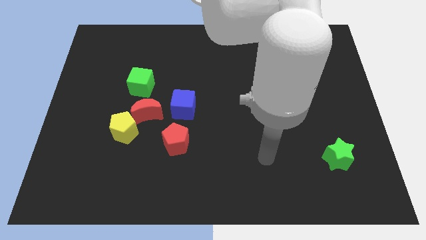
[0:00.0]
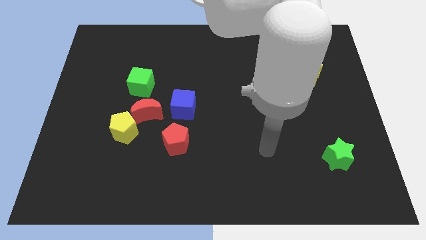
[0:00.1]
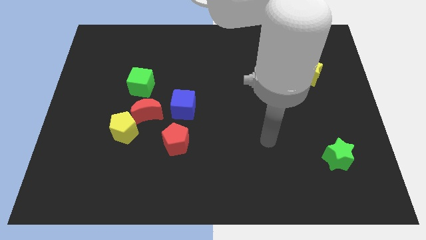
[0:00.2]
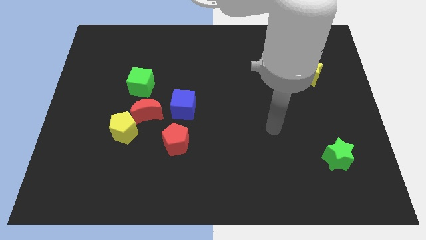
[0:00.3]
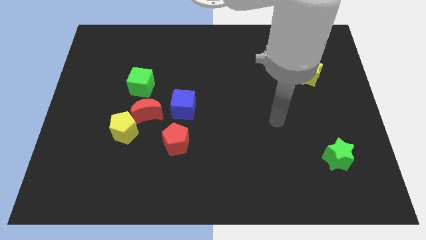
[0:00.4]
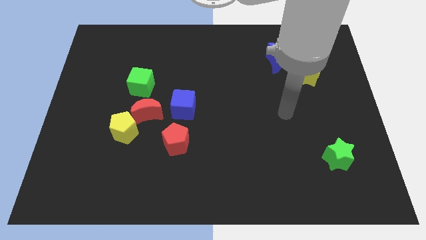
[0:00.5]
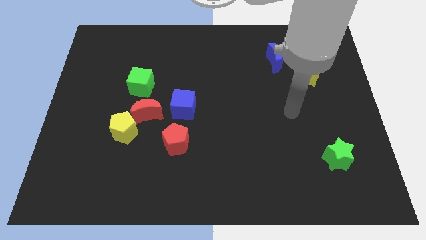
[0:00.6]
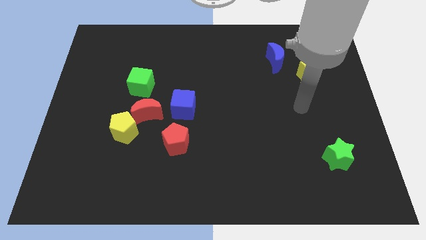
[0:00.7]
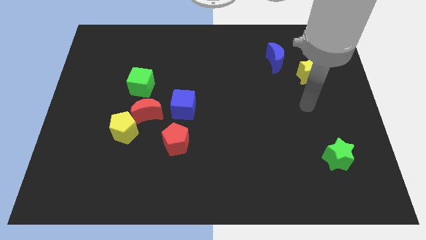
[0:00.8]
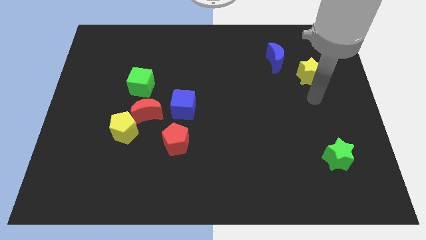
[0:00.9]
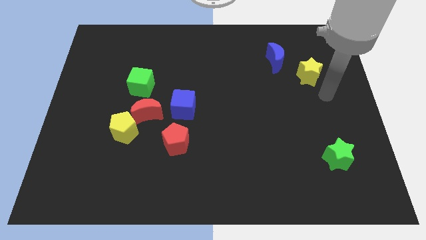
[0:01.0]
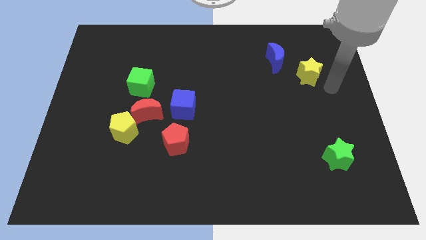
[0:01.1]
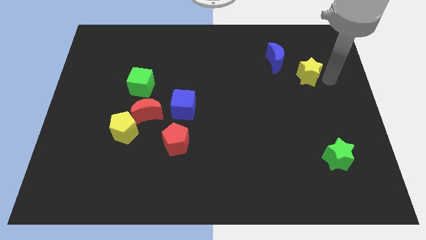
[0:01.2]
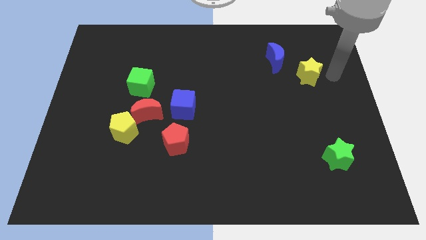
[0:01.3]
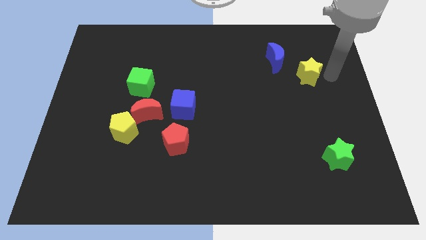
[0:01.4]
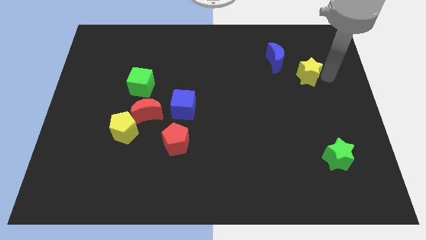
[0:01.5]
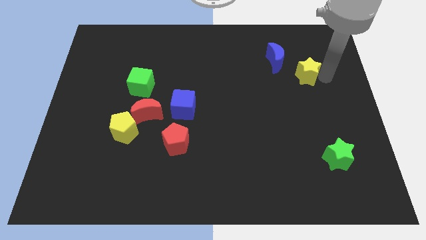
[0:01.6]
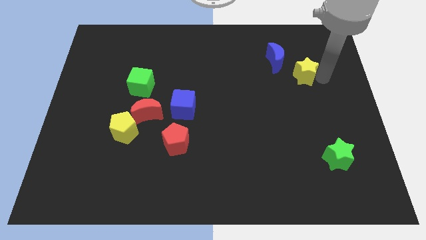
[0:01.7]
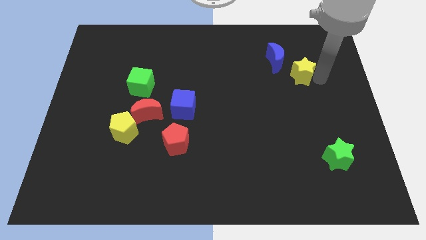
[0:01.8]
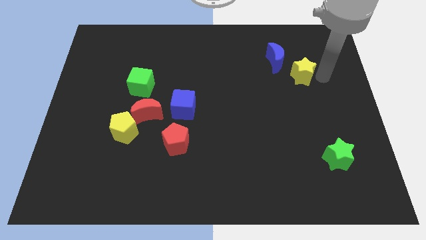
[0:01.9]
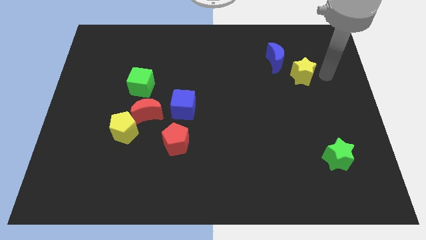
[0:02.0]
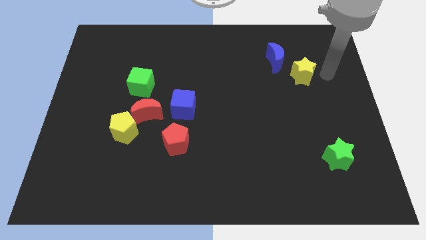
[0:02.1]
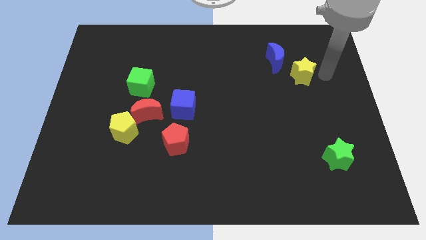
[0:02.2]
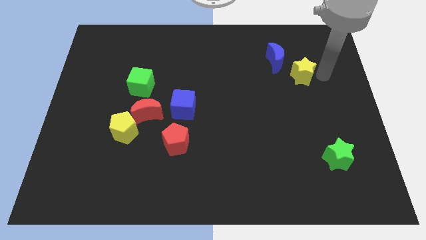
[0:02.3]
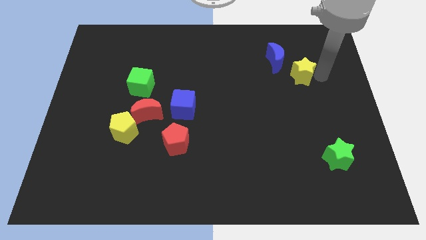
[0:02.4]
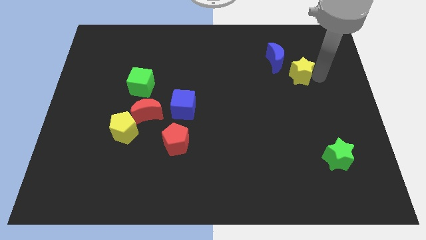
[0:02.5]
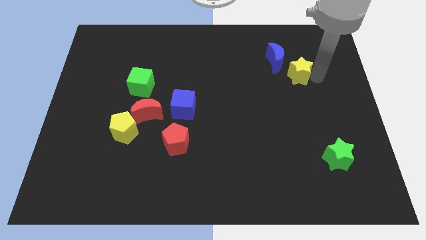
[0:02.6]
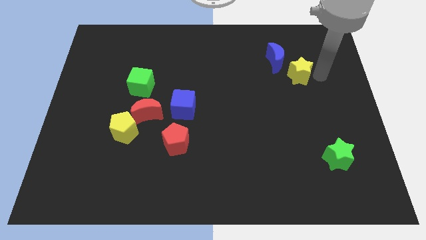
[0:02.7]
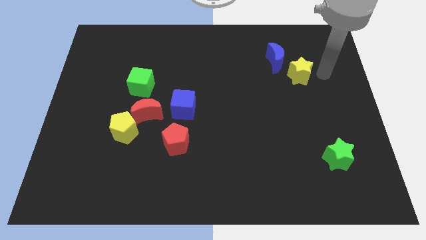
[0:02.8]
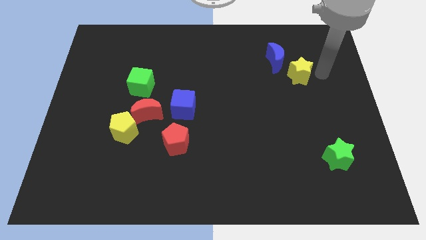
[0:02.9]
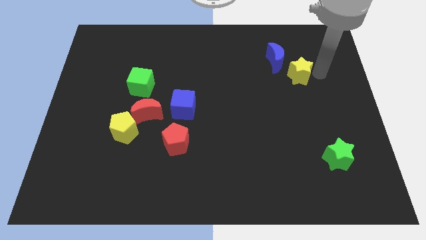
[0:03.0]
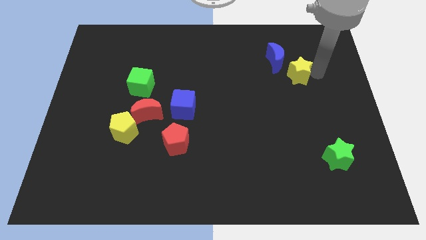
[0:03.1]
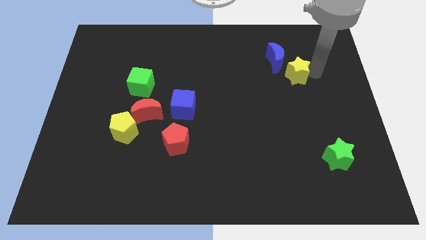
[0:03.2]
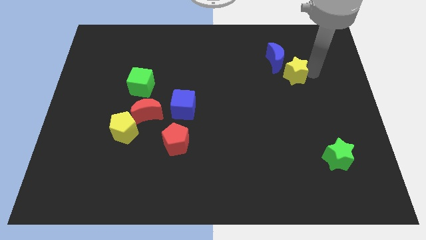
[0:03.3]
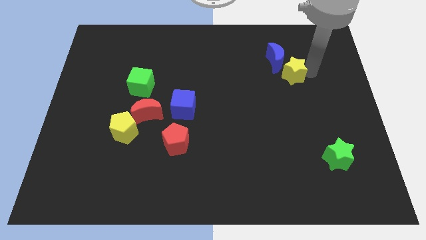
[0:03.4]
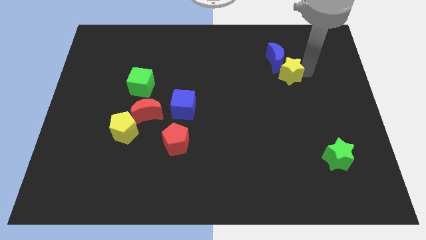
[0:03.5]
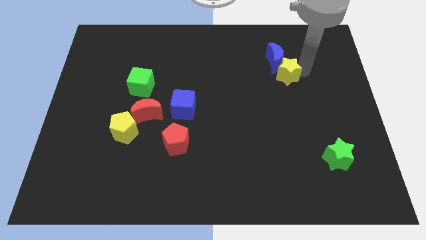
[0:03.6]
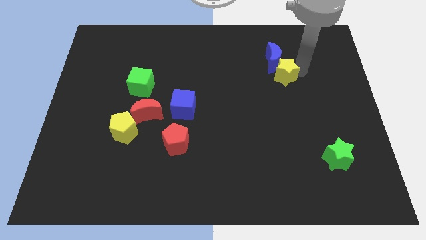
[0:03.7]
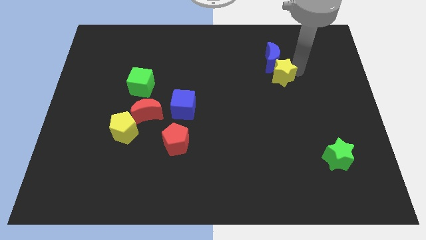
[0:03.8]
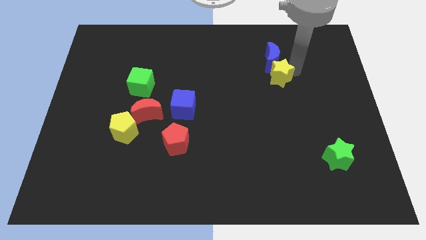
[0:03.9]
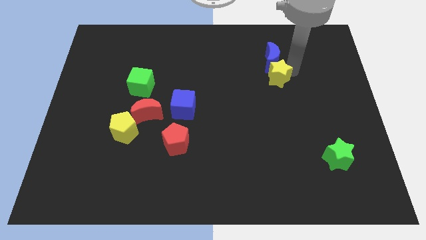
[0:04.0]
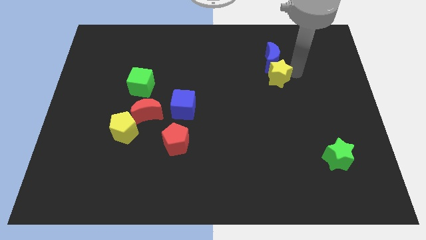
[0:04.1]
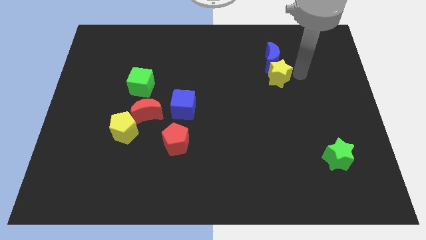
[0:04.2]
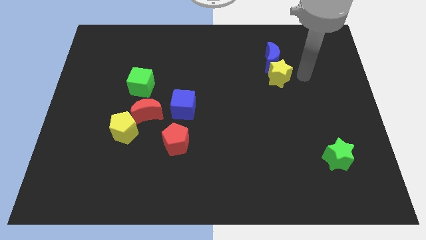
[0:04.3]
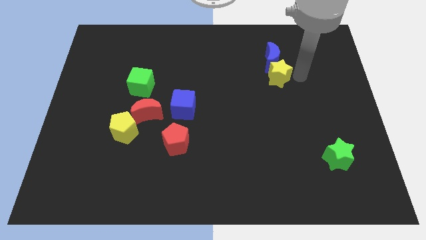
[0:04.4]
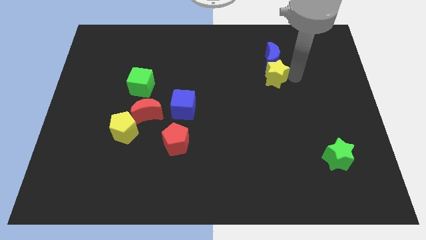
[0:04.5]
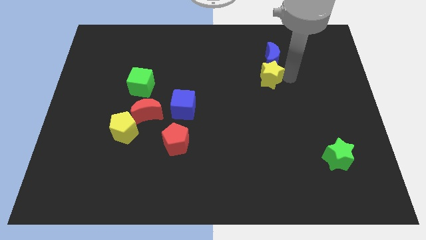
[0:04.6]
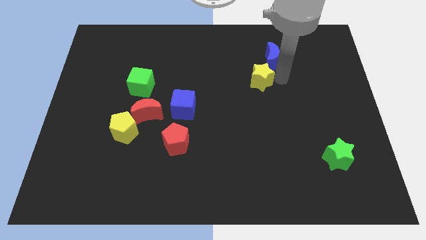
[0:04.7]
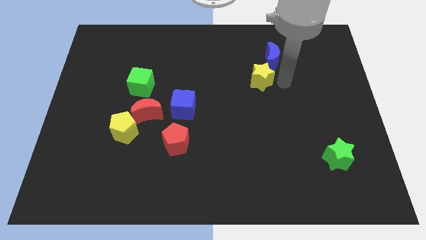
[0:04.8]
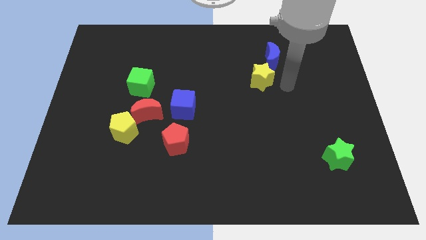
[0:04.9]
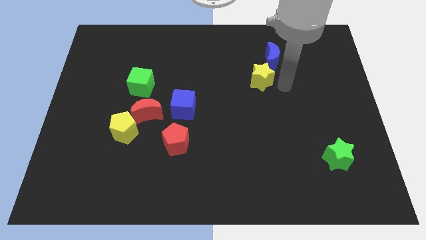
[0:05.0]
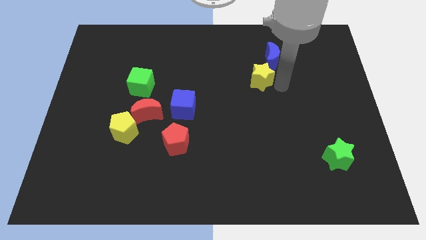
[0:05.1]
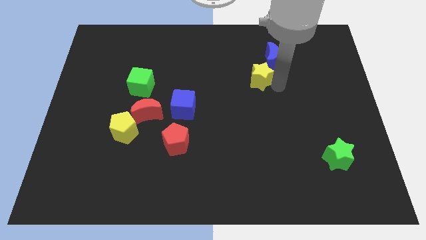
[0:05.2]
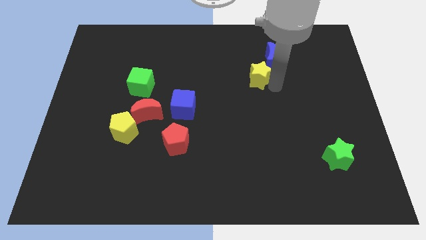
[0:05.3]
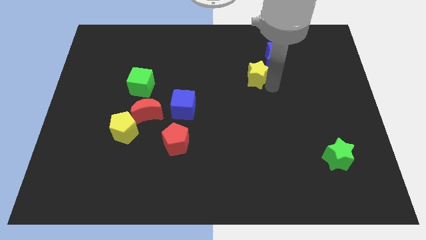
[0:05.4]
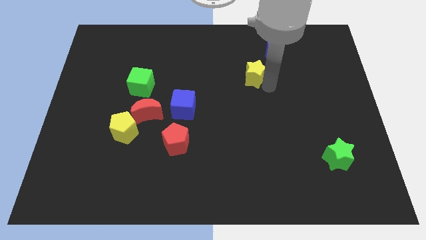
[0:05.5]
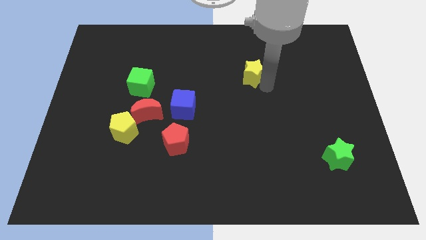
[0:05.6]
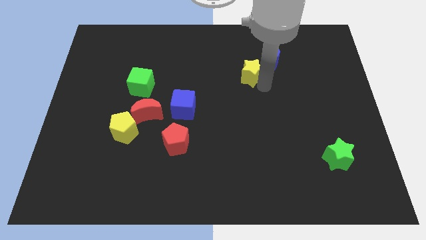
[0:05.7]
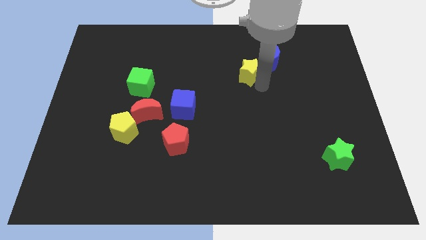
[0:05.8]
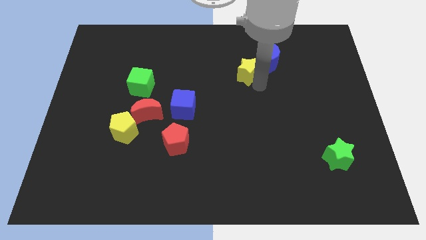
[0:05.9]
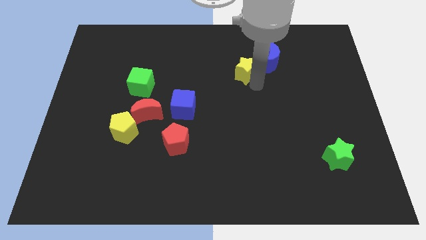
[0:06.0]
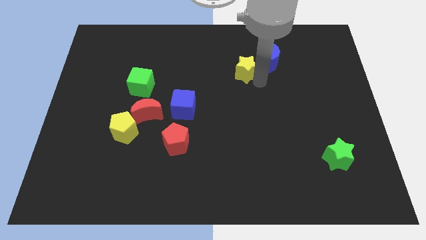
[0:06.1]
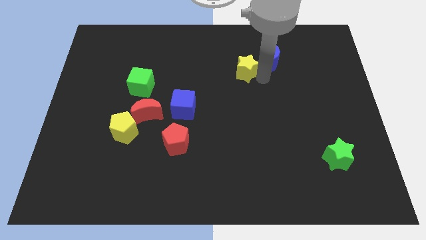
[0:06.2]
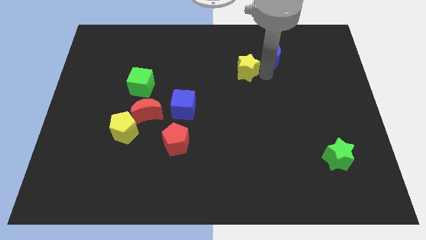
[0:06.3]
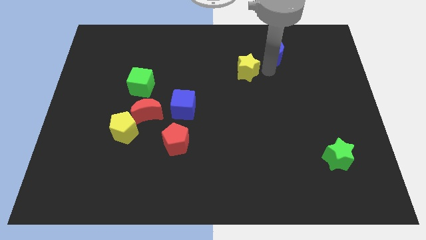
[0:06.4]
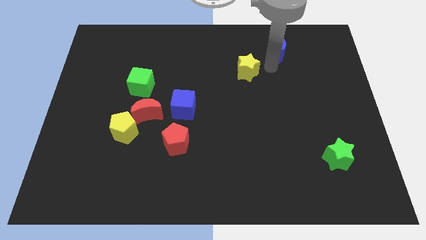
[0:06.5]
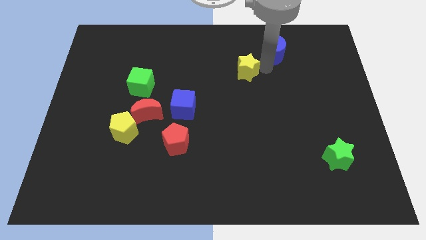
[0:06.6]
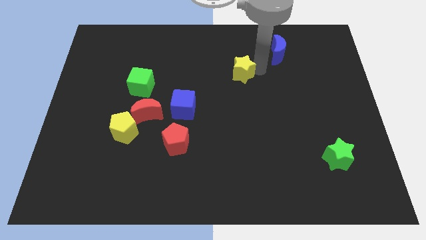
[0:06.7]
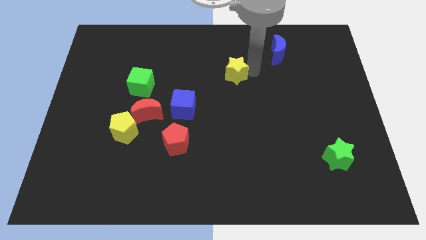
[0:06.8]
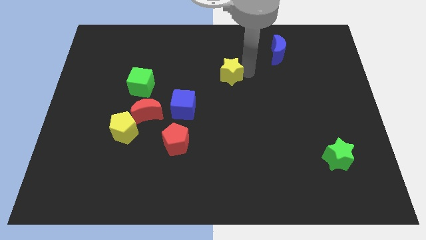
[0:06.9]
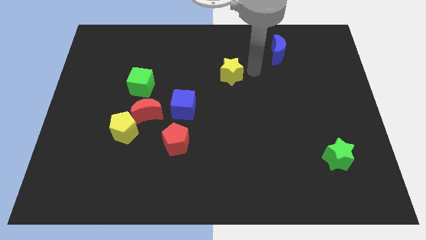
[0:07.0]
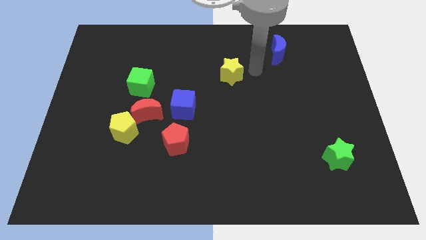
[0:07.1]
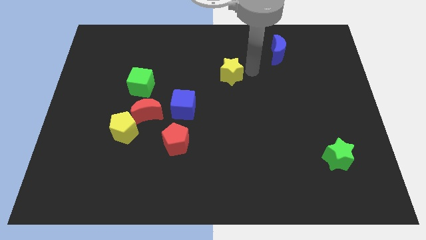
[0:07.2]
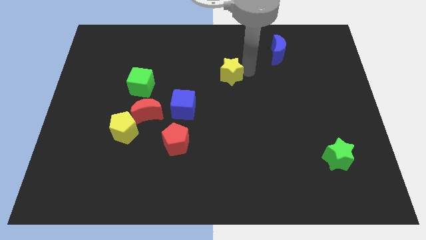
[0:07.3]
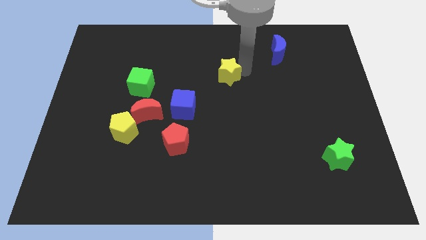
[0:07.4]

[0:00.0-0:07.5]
slide the yellow star left

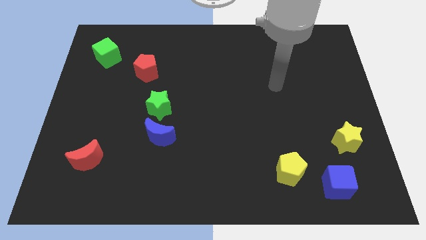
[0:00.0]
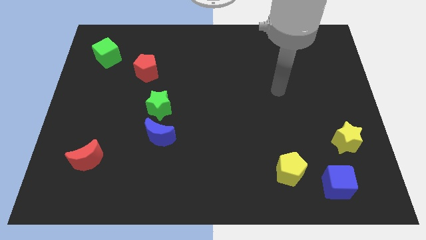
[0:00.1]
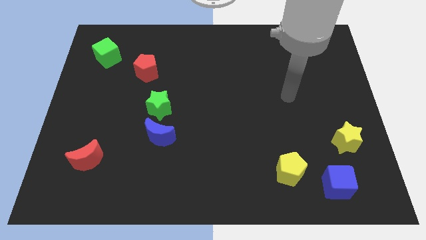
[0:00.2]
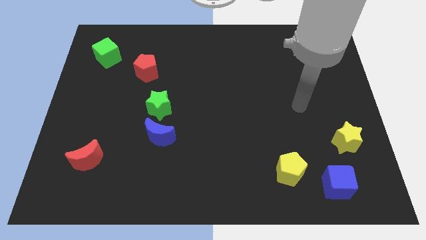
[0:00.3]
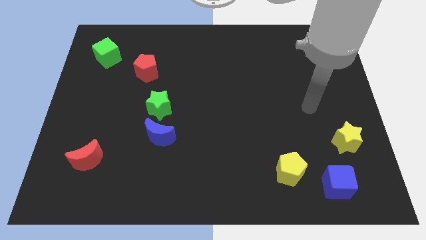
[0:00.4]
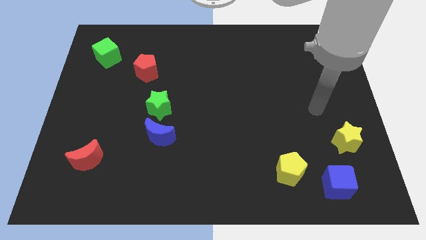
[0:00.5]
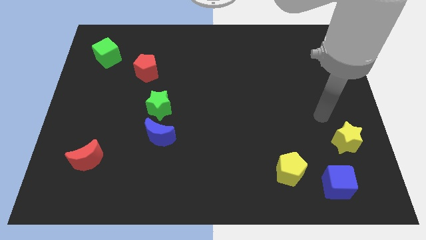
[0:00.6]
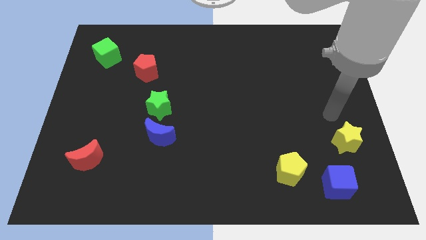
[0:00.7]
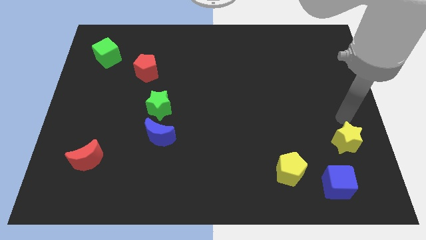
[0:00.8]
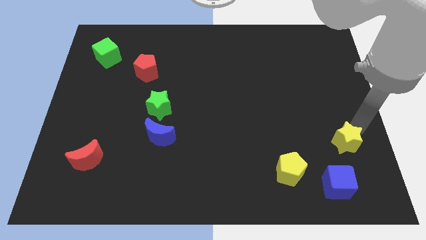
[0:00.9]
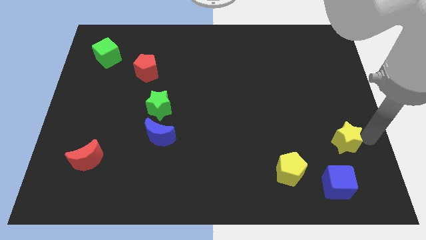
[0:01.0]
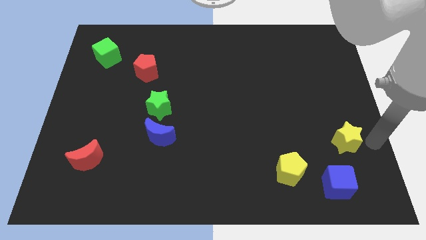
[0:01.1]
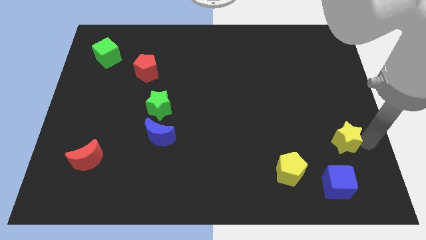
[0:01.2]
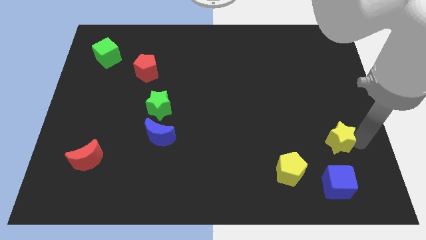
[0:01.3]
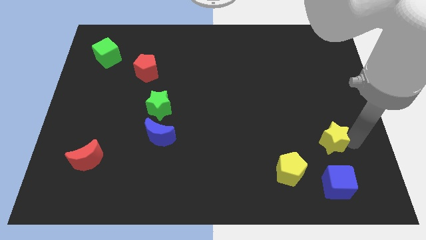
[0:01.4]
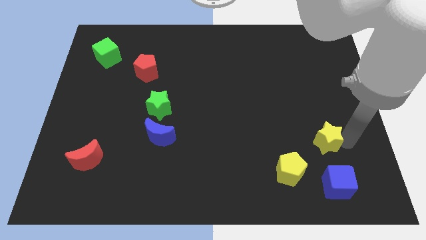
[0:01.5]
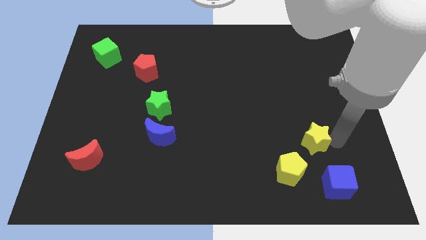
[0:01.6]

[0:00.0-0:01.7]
slightly slide the yellow star to the left
